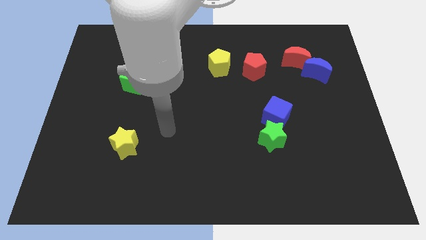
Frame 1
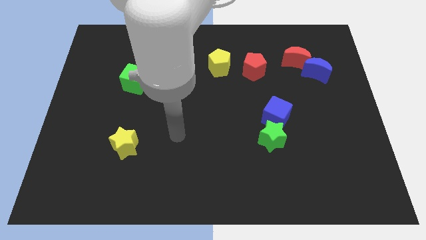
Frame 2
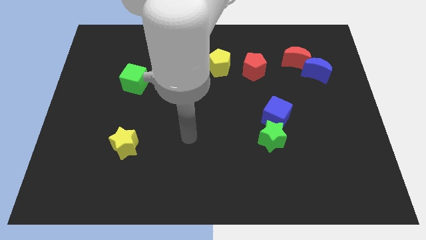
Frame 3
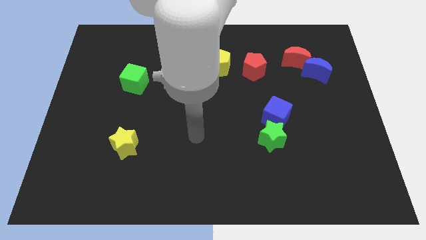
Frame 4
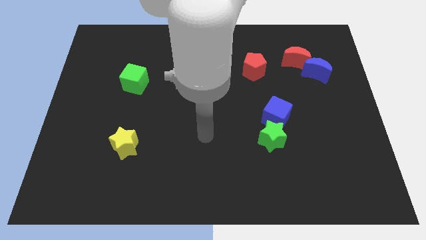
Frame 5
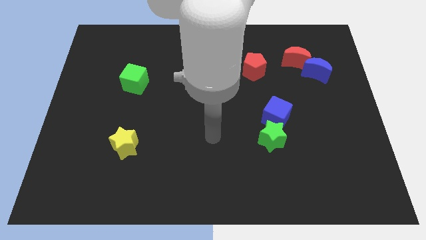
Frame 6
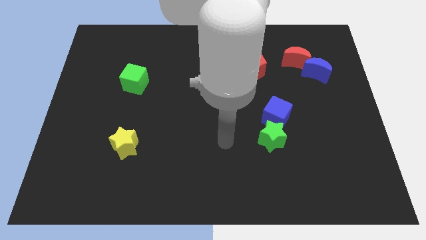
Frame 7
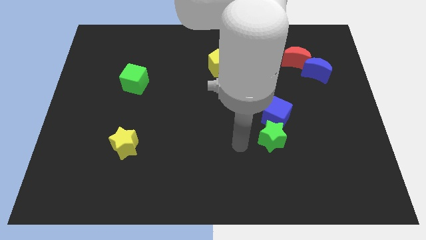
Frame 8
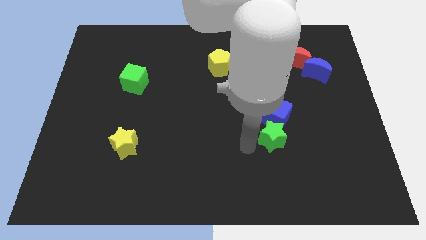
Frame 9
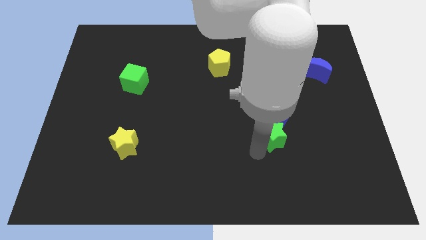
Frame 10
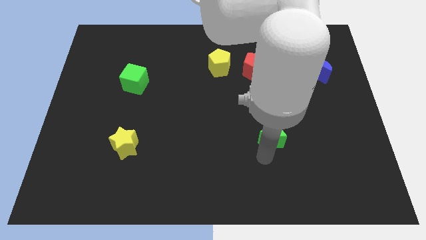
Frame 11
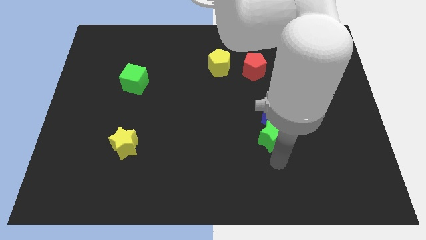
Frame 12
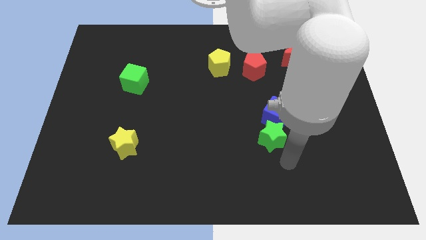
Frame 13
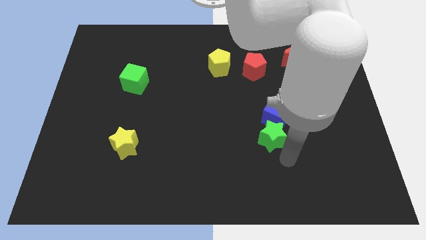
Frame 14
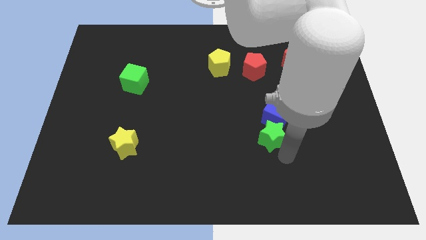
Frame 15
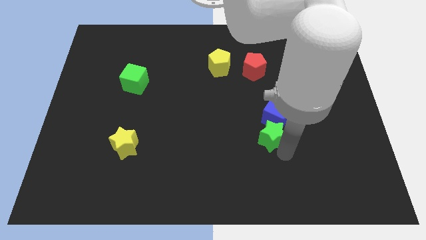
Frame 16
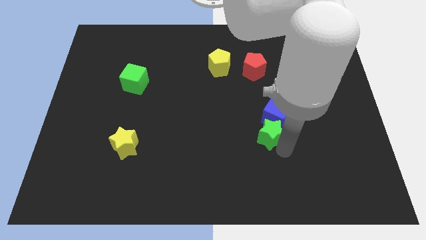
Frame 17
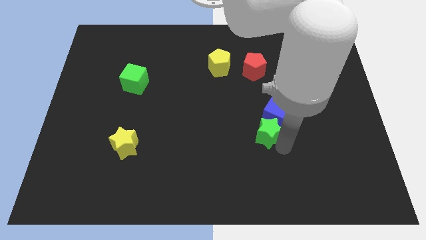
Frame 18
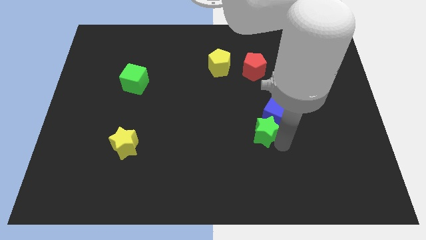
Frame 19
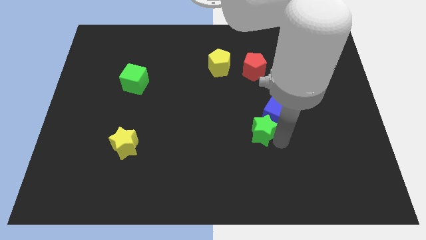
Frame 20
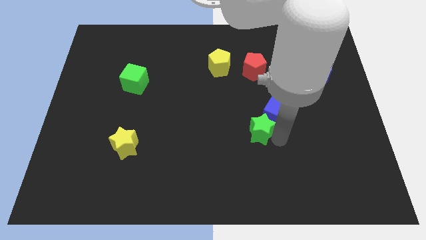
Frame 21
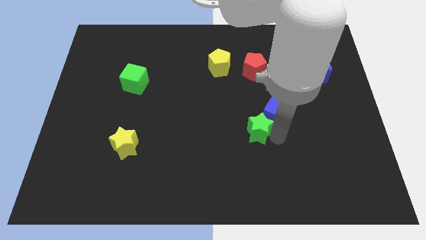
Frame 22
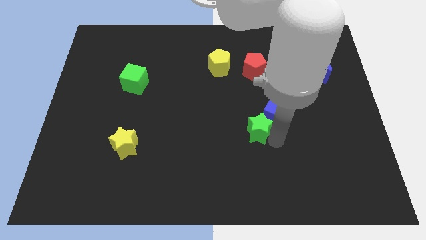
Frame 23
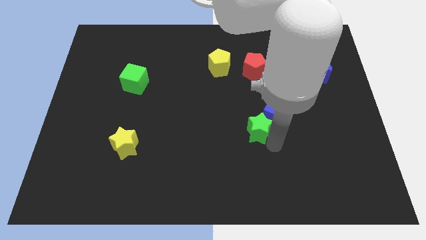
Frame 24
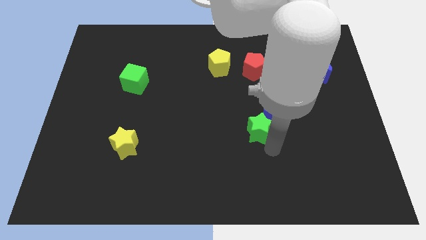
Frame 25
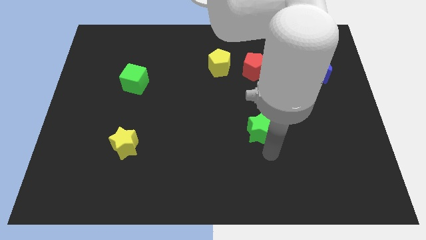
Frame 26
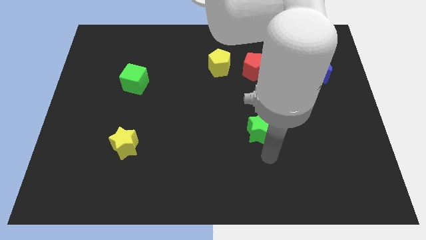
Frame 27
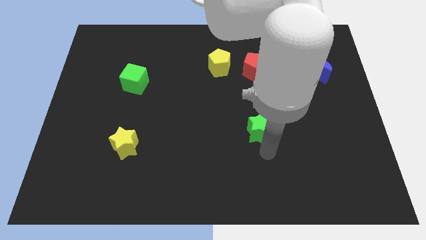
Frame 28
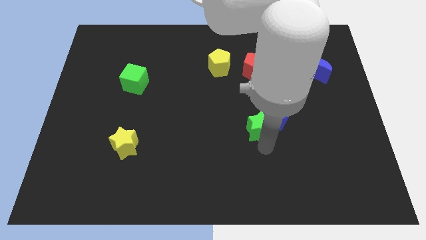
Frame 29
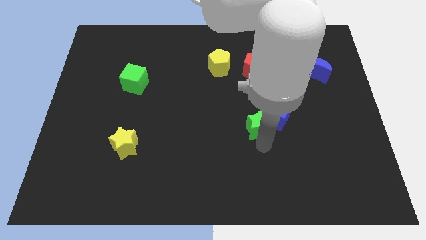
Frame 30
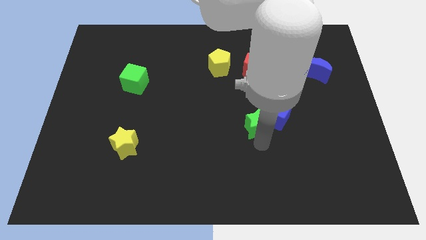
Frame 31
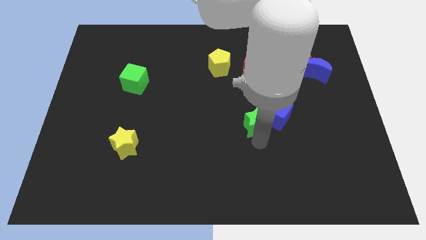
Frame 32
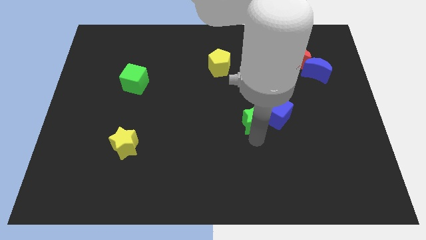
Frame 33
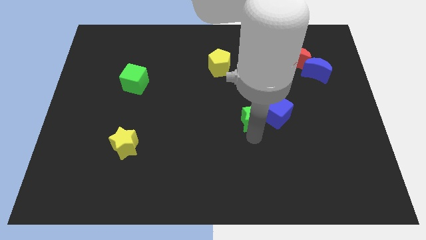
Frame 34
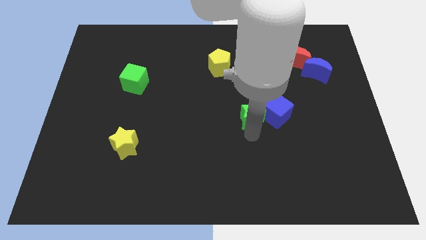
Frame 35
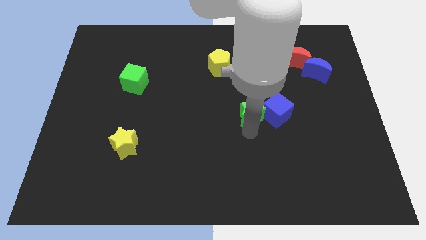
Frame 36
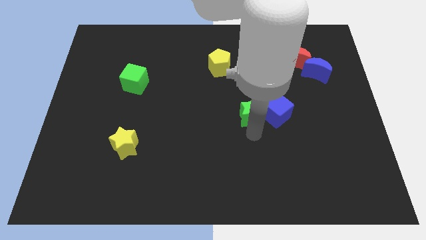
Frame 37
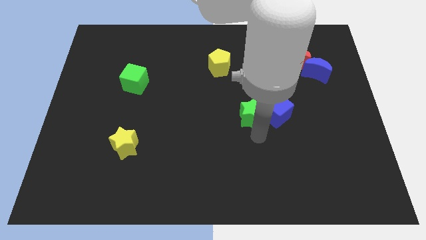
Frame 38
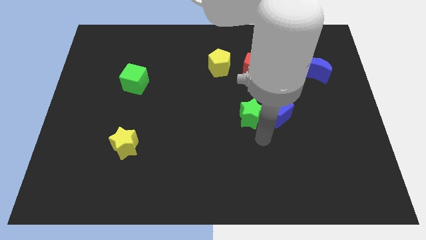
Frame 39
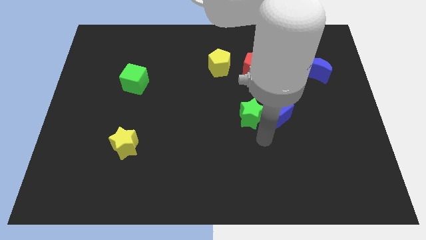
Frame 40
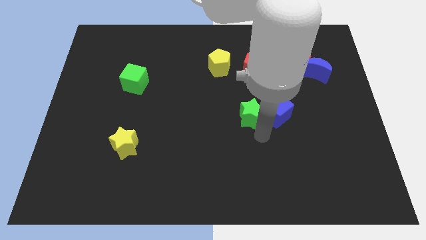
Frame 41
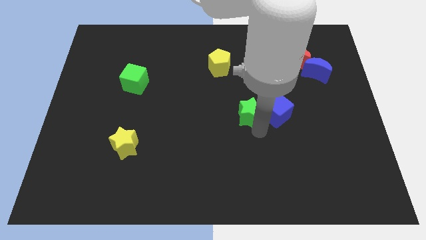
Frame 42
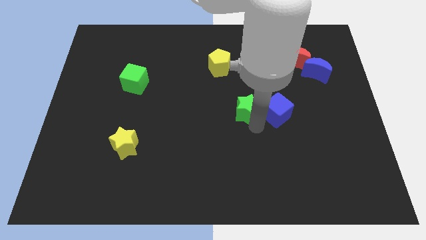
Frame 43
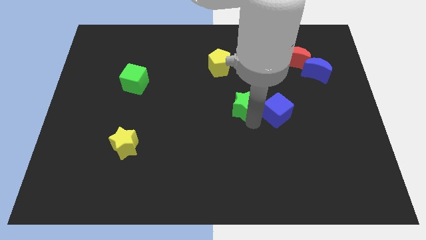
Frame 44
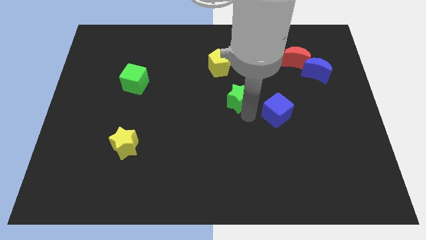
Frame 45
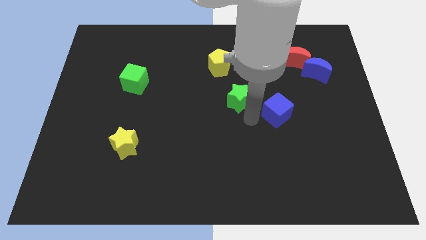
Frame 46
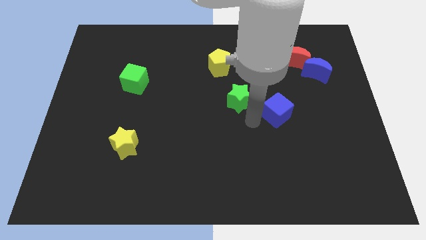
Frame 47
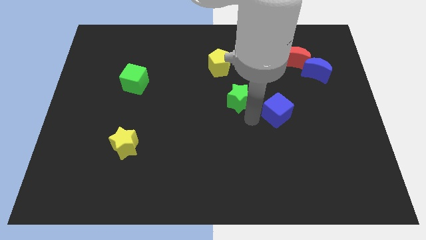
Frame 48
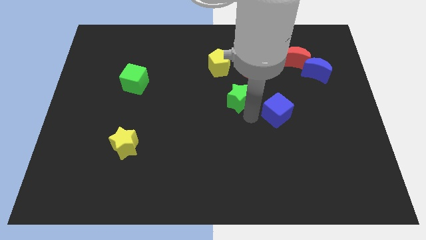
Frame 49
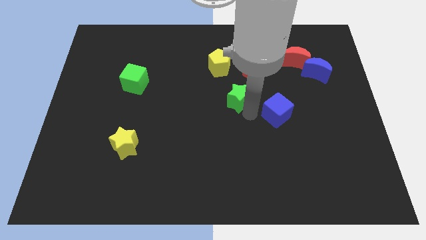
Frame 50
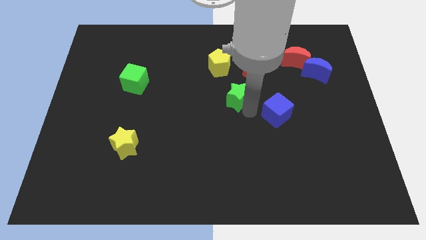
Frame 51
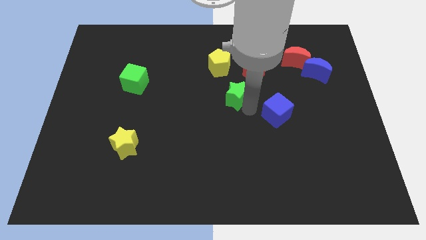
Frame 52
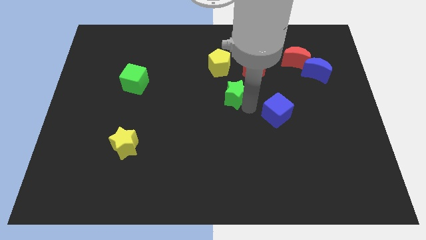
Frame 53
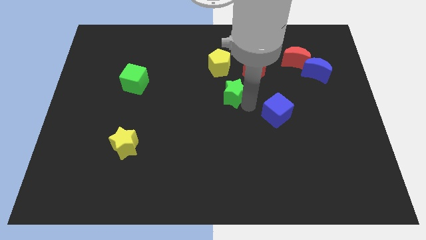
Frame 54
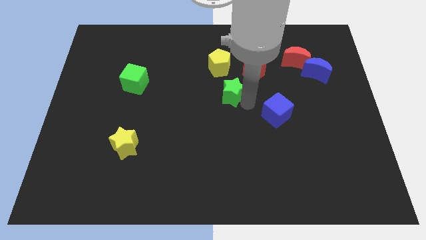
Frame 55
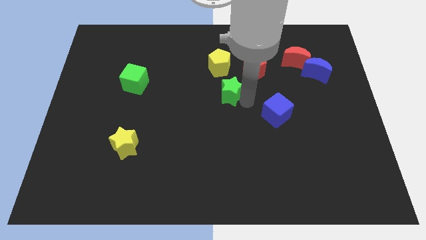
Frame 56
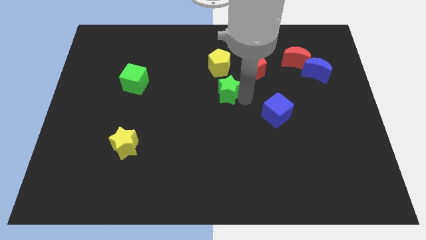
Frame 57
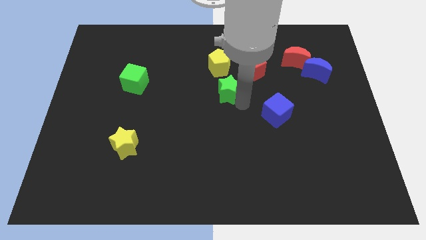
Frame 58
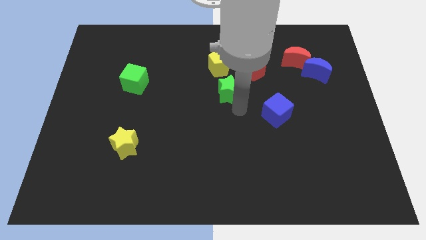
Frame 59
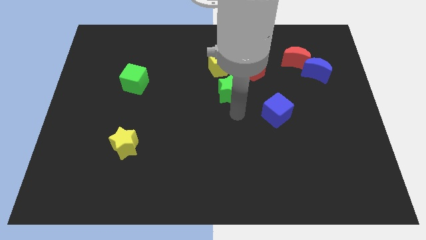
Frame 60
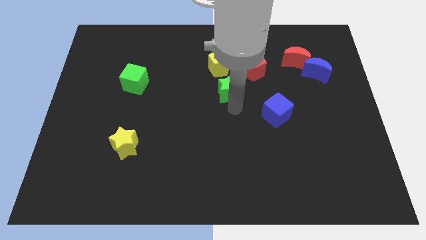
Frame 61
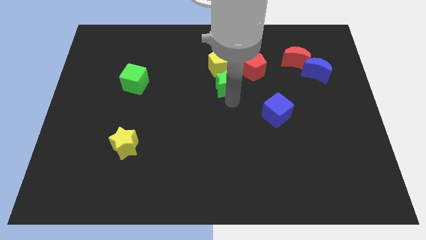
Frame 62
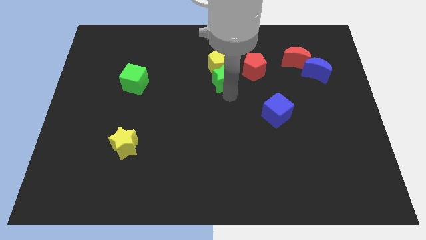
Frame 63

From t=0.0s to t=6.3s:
put the green star towards the yellow pentagon

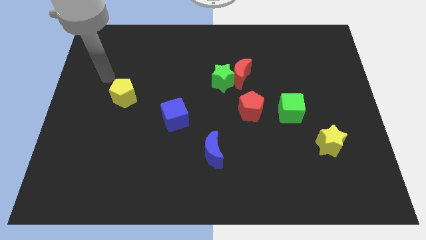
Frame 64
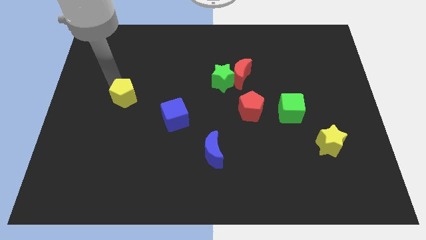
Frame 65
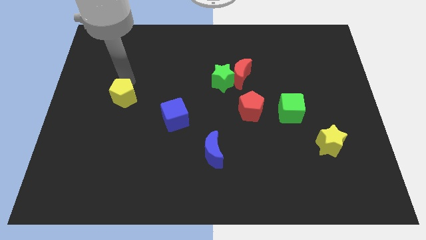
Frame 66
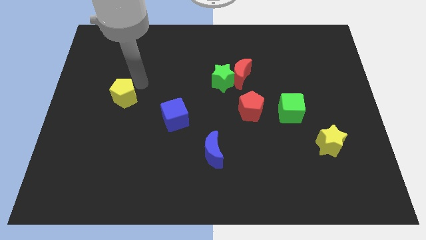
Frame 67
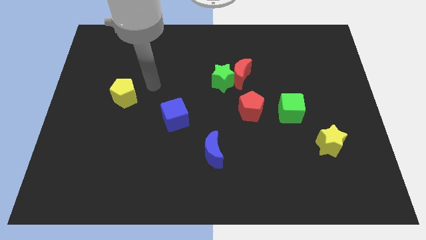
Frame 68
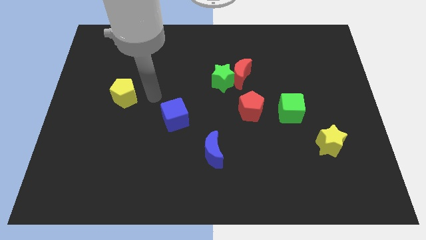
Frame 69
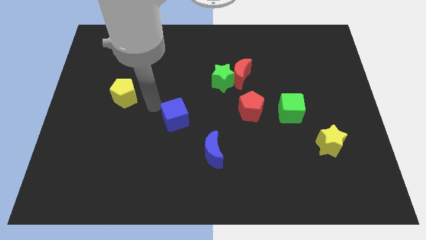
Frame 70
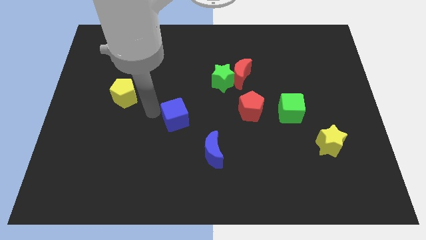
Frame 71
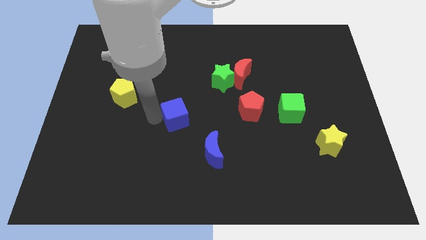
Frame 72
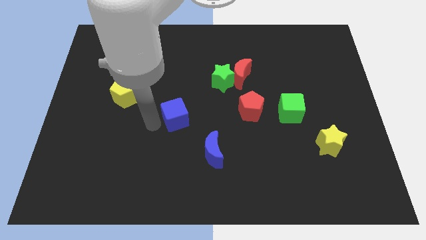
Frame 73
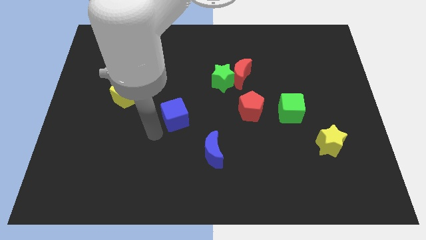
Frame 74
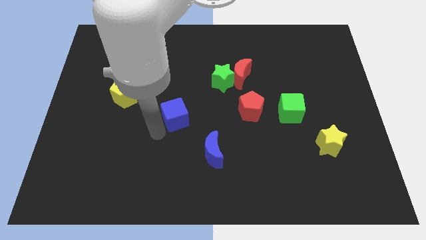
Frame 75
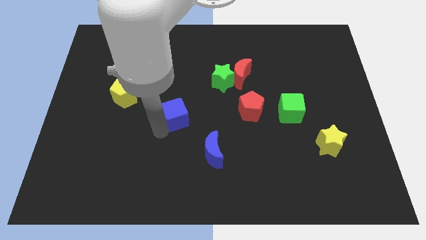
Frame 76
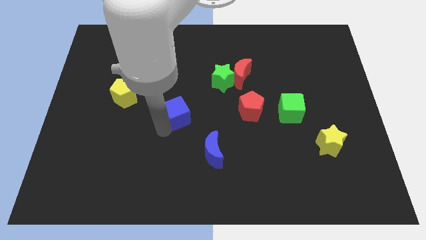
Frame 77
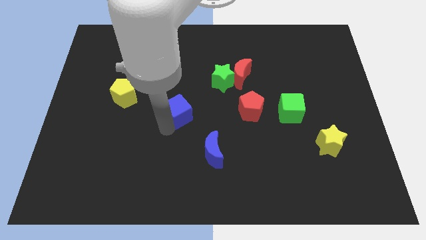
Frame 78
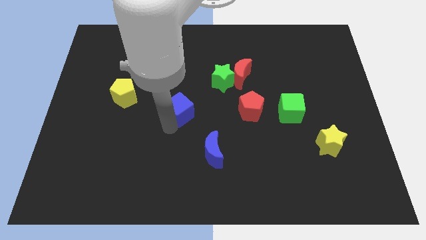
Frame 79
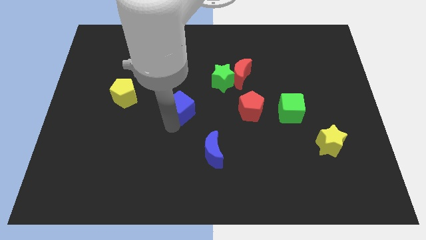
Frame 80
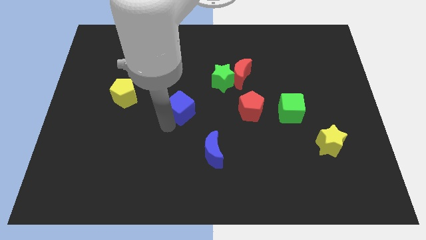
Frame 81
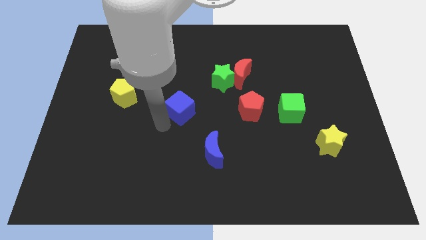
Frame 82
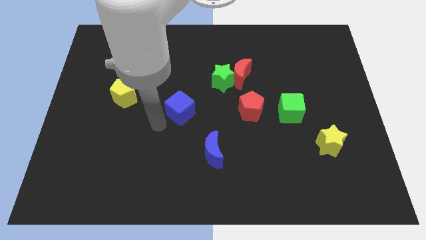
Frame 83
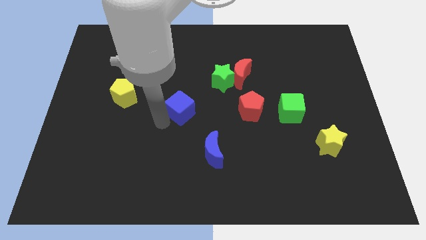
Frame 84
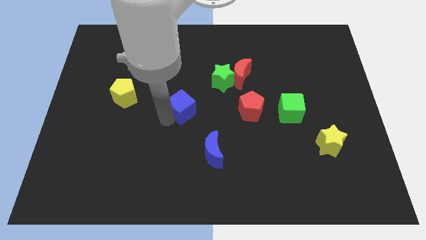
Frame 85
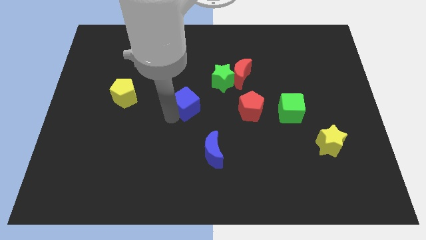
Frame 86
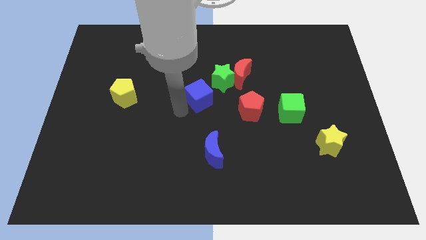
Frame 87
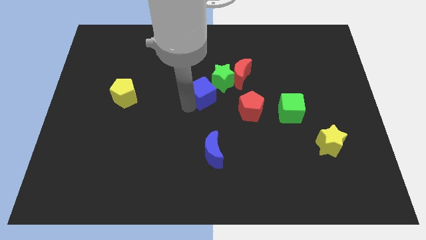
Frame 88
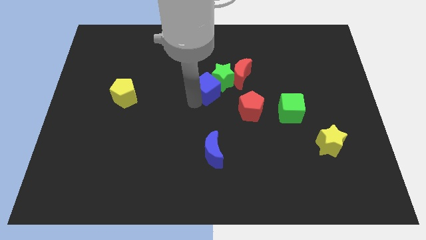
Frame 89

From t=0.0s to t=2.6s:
push the blue cube next to the green star
